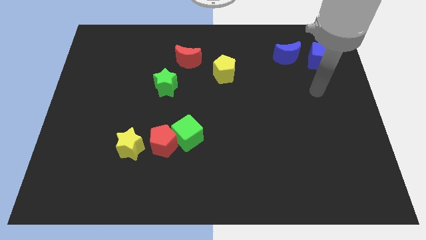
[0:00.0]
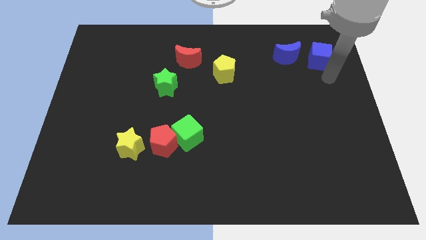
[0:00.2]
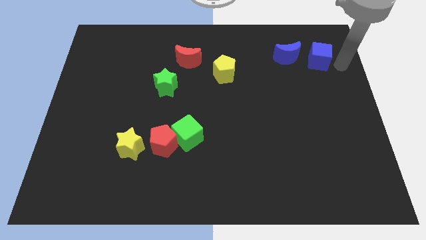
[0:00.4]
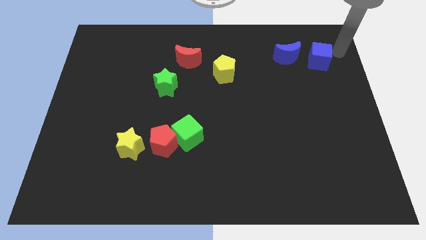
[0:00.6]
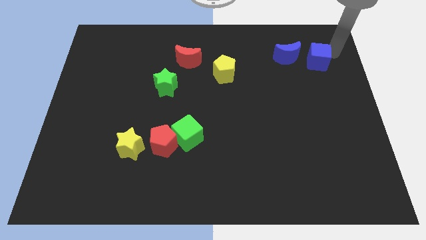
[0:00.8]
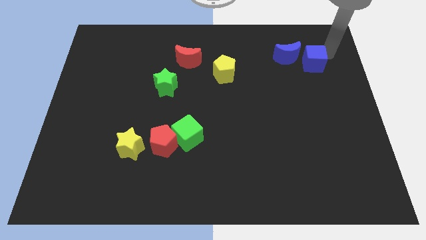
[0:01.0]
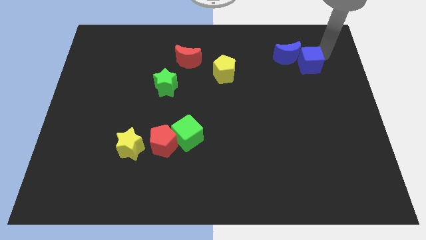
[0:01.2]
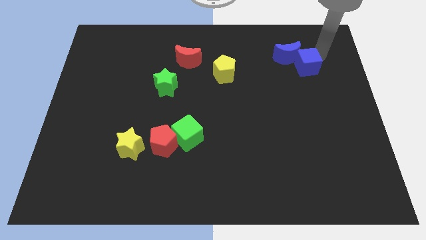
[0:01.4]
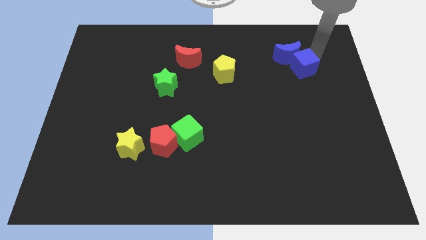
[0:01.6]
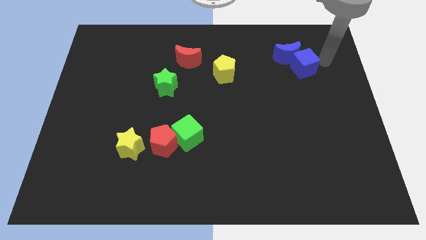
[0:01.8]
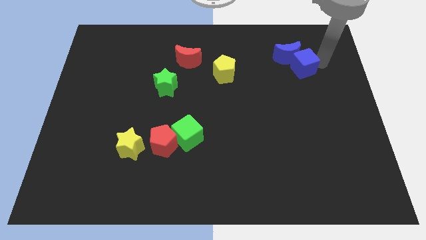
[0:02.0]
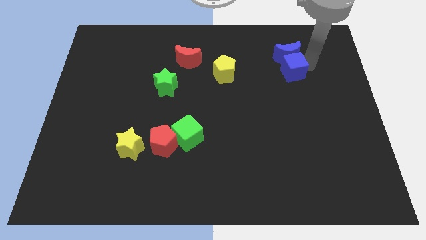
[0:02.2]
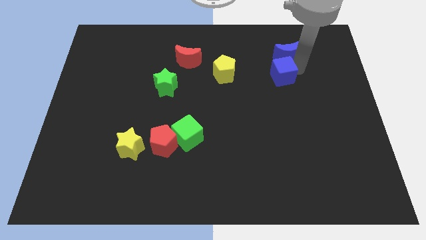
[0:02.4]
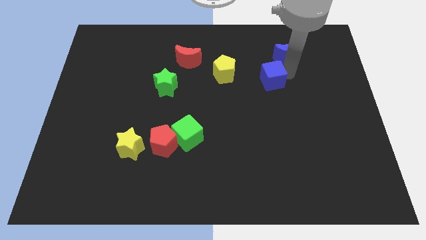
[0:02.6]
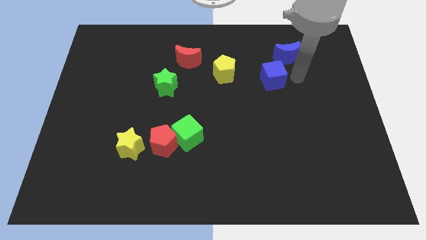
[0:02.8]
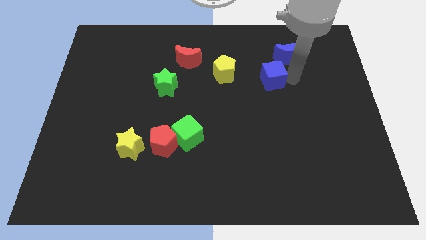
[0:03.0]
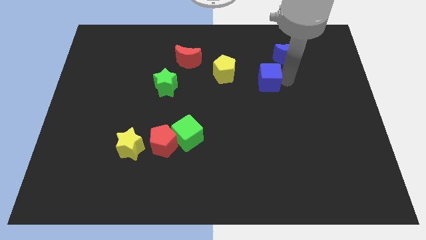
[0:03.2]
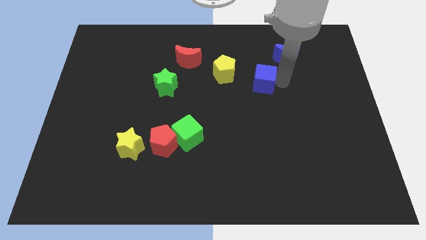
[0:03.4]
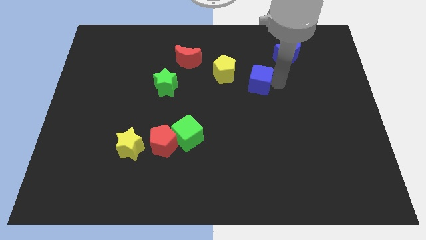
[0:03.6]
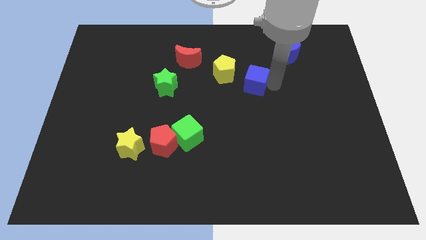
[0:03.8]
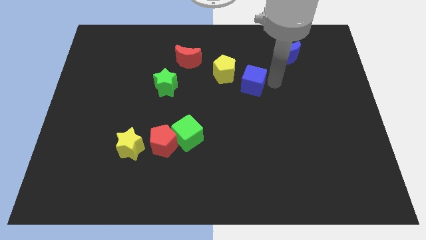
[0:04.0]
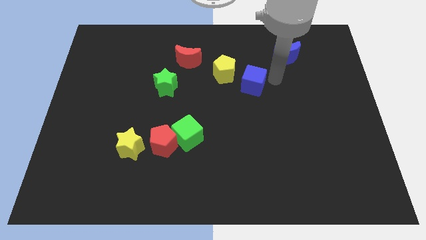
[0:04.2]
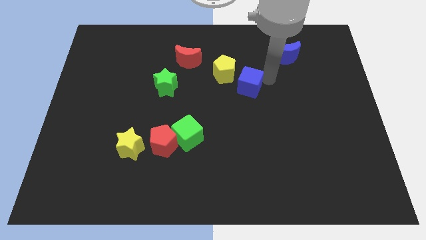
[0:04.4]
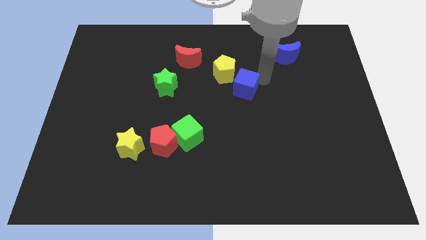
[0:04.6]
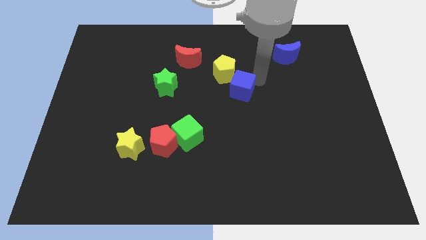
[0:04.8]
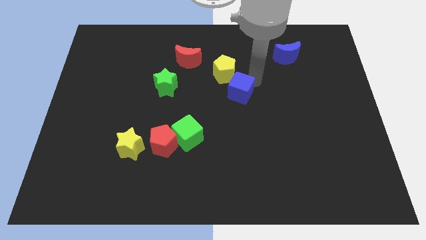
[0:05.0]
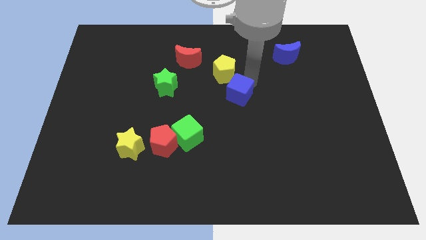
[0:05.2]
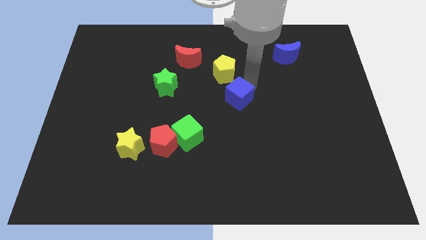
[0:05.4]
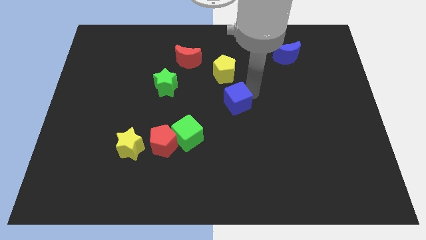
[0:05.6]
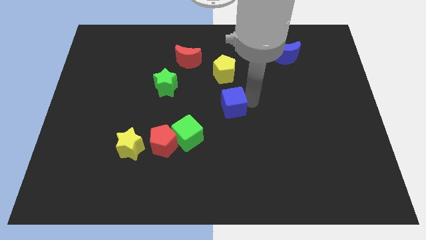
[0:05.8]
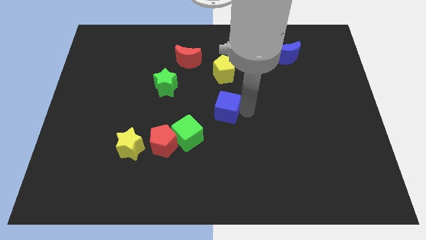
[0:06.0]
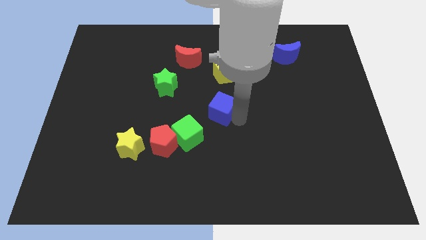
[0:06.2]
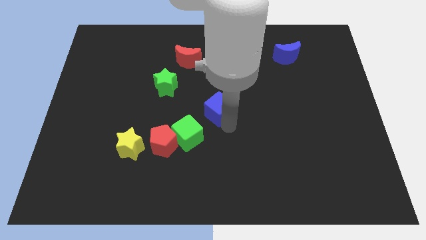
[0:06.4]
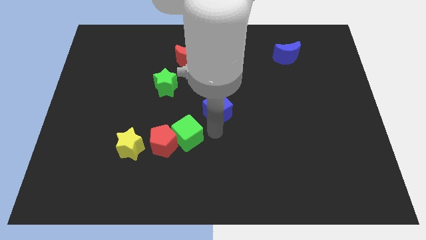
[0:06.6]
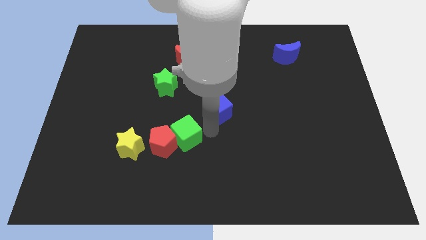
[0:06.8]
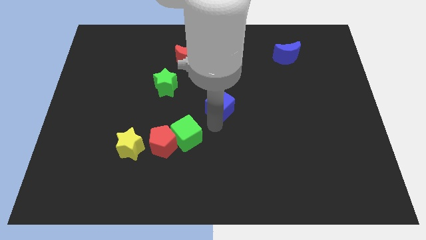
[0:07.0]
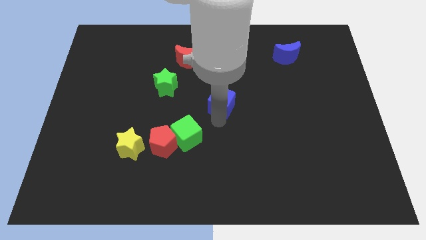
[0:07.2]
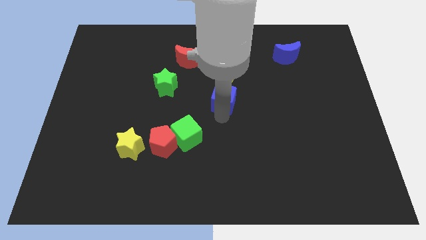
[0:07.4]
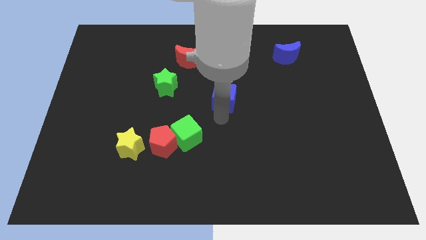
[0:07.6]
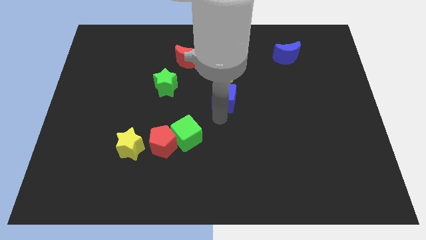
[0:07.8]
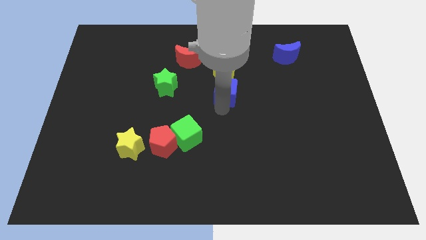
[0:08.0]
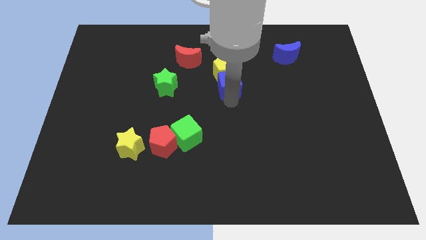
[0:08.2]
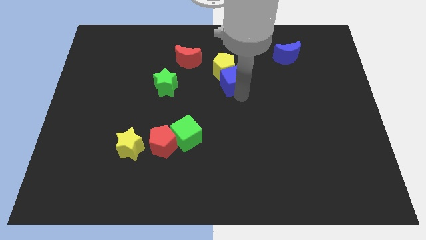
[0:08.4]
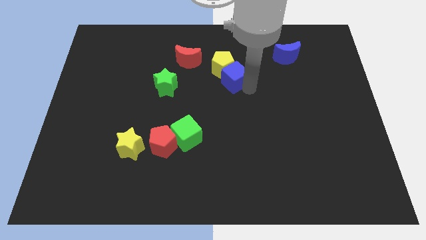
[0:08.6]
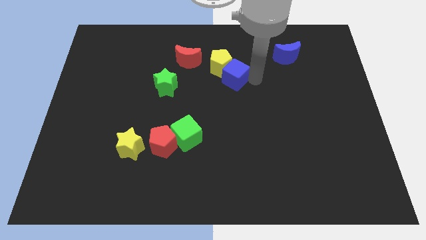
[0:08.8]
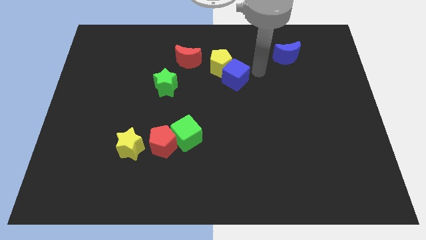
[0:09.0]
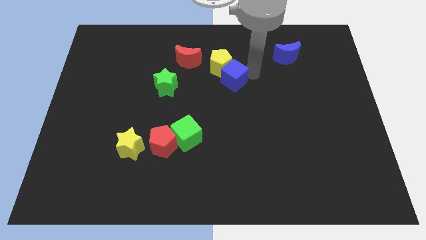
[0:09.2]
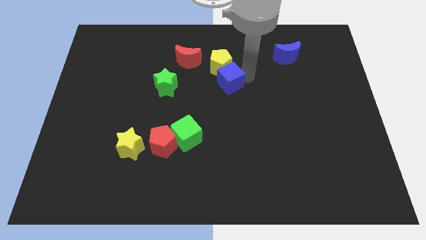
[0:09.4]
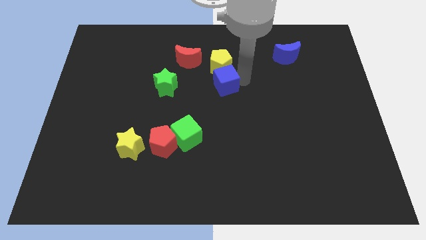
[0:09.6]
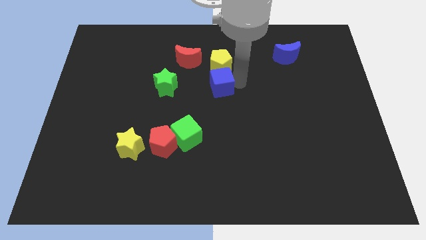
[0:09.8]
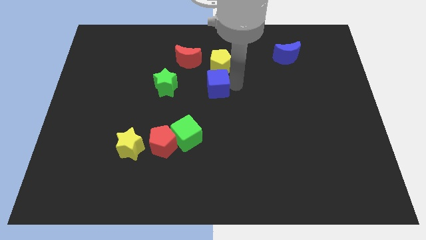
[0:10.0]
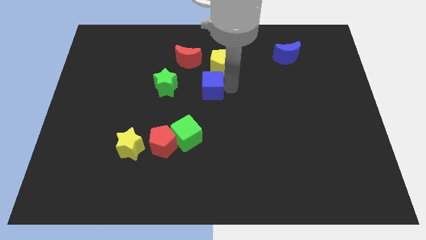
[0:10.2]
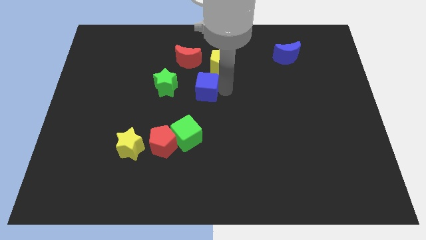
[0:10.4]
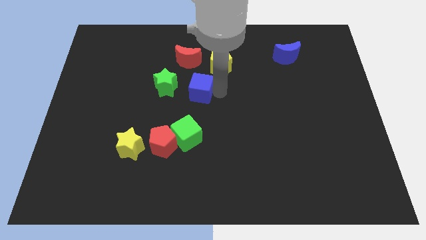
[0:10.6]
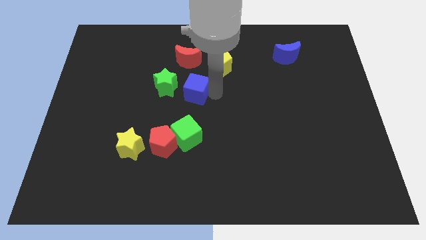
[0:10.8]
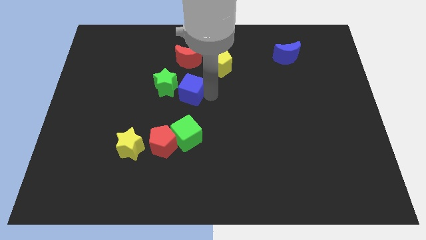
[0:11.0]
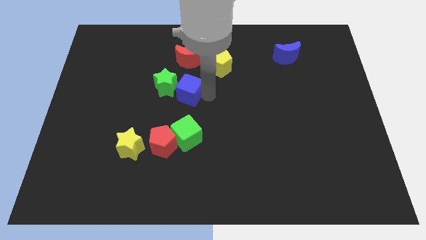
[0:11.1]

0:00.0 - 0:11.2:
move the blue cube close to the green star

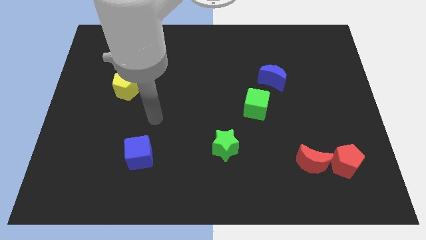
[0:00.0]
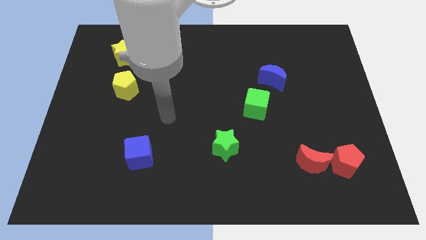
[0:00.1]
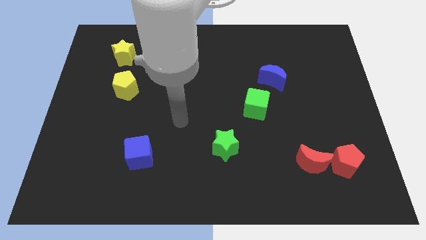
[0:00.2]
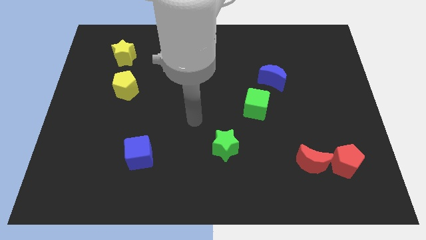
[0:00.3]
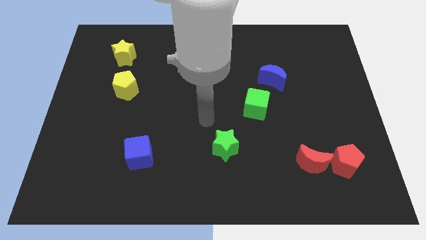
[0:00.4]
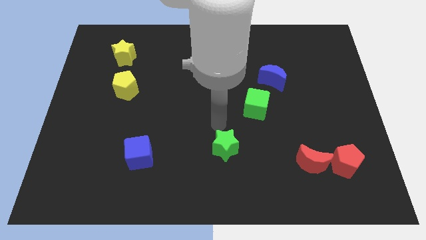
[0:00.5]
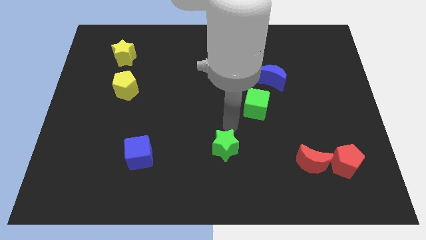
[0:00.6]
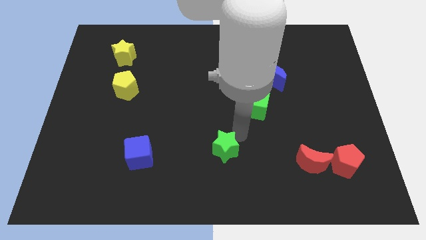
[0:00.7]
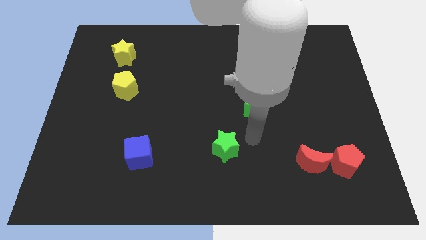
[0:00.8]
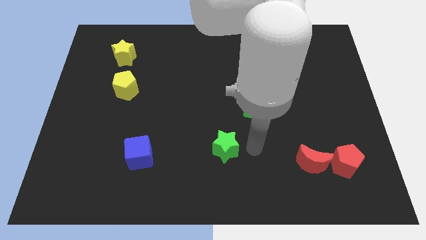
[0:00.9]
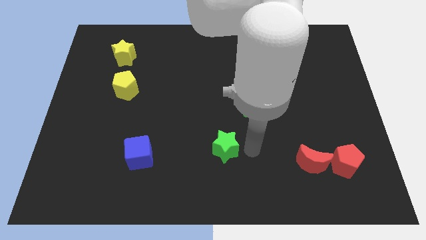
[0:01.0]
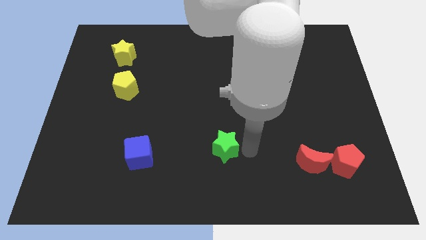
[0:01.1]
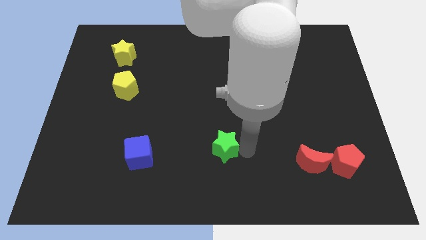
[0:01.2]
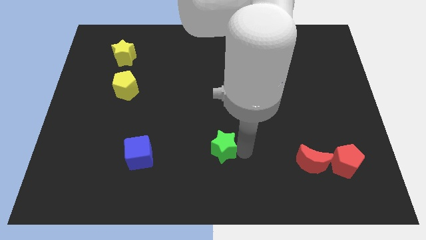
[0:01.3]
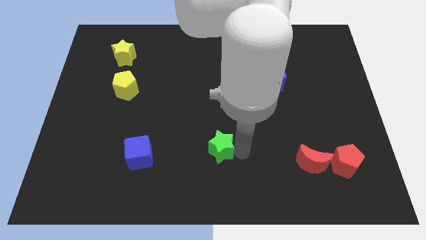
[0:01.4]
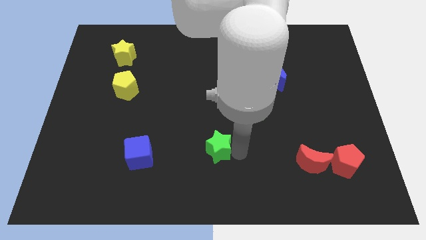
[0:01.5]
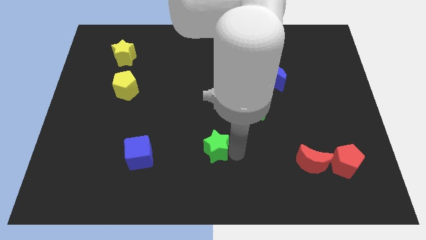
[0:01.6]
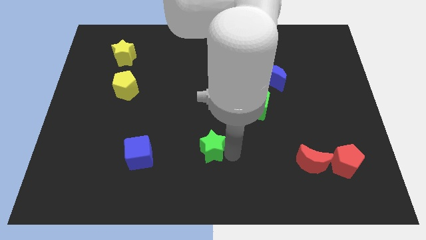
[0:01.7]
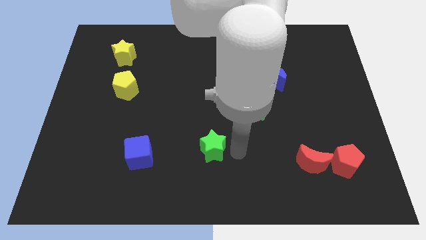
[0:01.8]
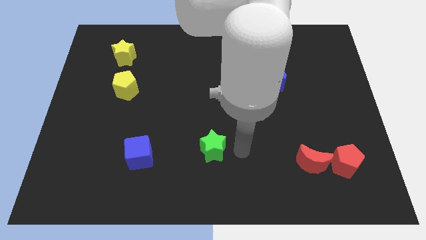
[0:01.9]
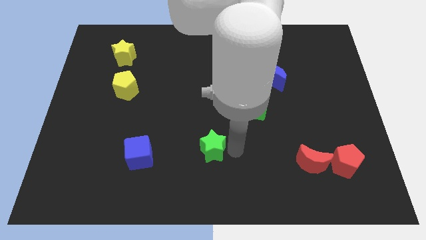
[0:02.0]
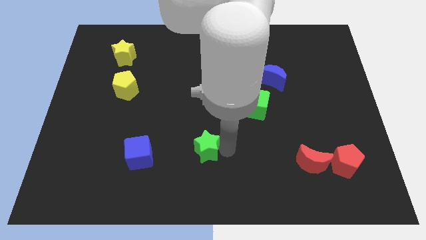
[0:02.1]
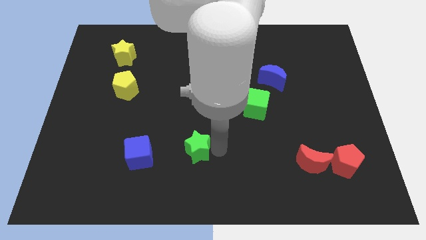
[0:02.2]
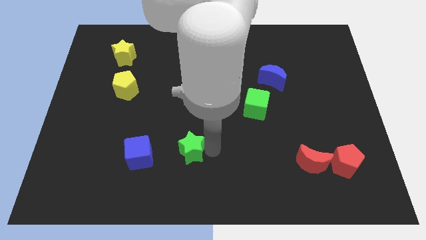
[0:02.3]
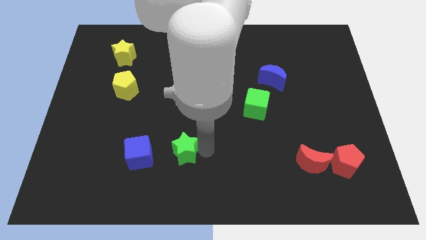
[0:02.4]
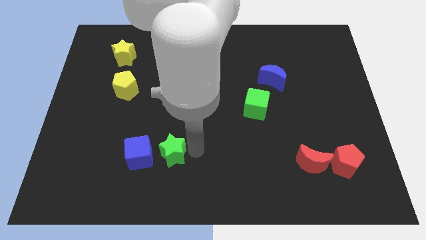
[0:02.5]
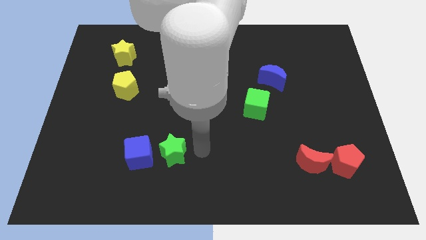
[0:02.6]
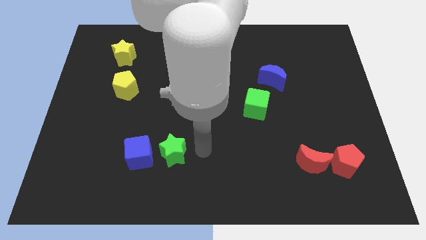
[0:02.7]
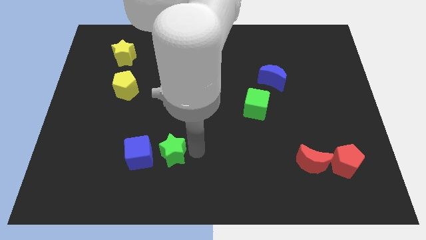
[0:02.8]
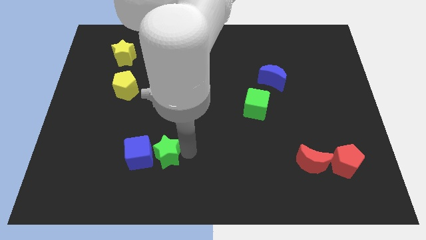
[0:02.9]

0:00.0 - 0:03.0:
put the green star next to the blue cube
